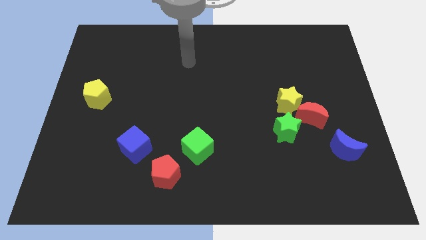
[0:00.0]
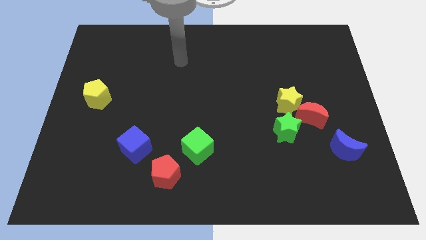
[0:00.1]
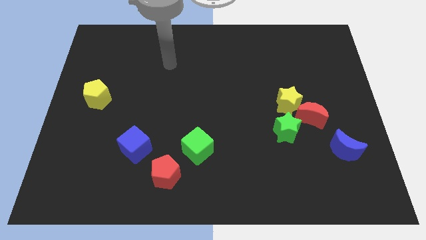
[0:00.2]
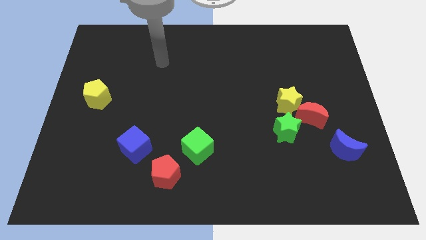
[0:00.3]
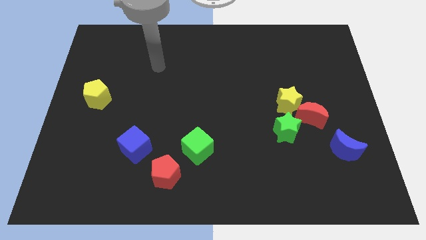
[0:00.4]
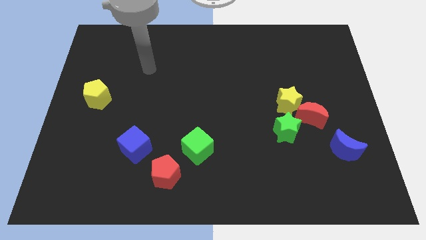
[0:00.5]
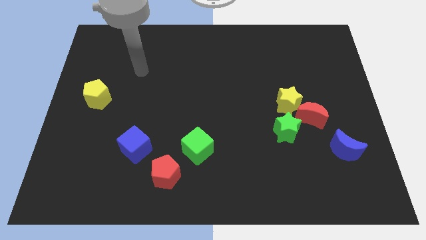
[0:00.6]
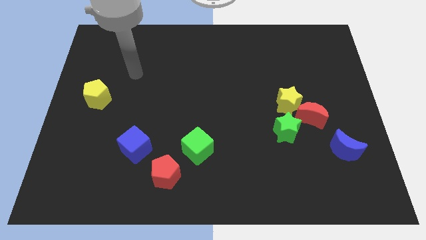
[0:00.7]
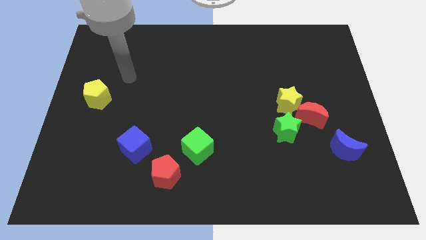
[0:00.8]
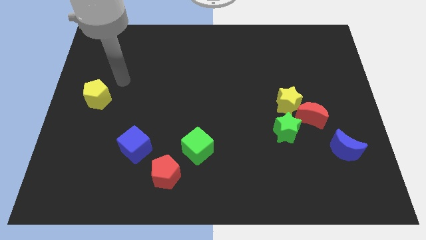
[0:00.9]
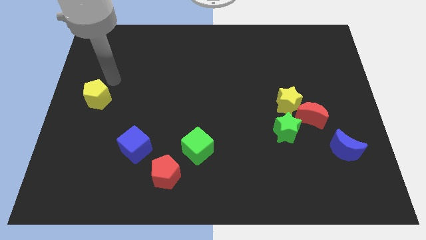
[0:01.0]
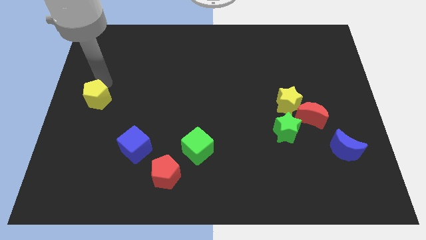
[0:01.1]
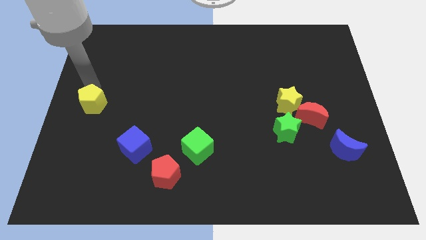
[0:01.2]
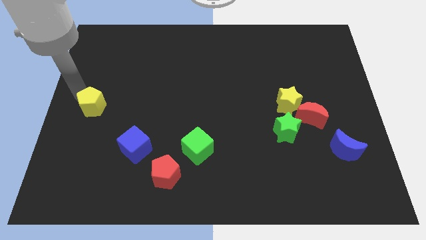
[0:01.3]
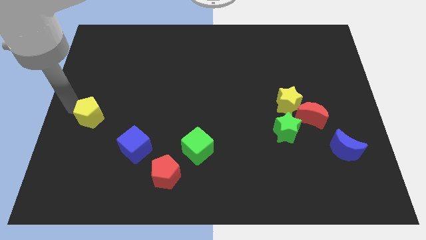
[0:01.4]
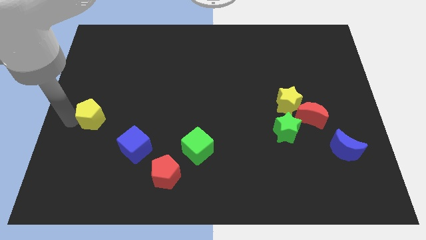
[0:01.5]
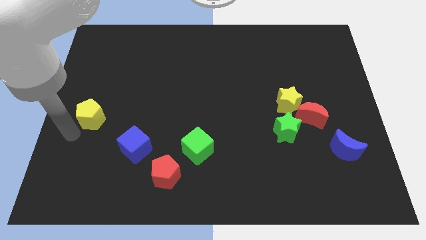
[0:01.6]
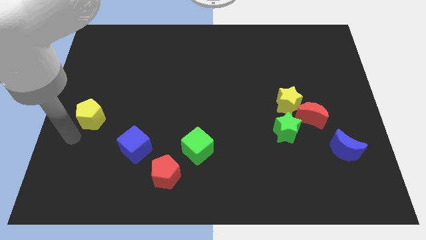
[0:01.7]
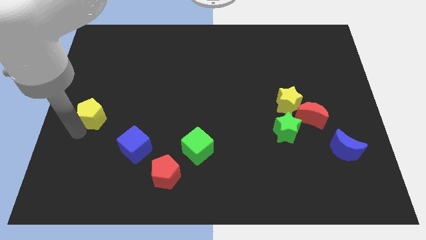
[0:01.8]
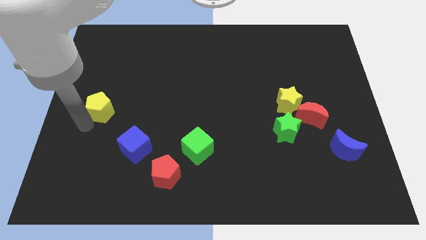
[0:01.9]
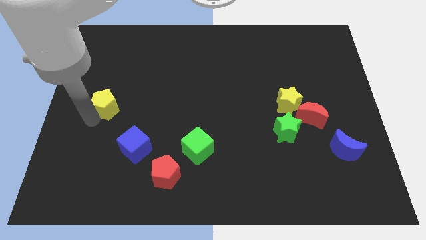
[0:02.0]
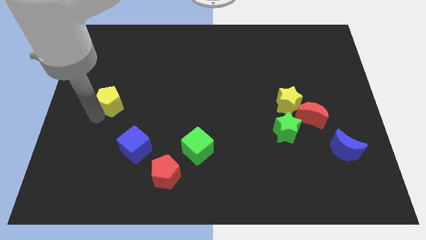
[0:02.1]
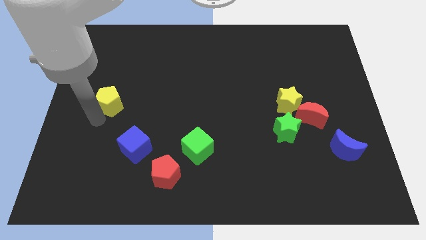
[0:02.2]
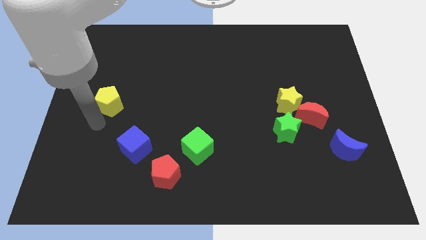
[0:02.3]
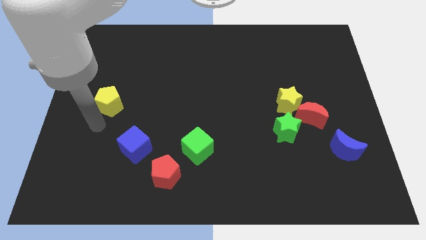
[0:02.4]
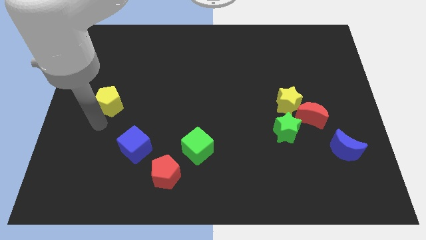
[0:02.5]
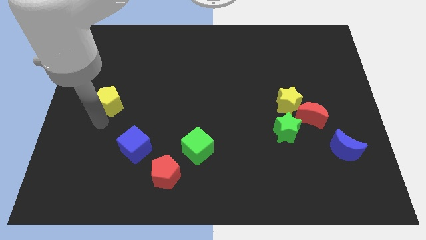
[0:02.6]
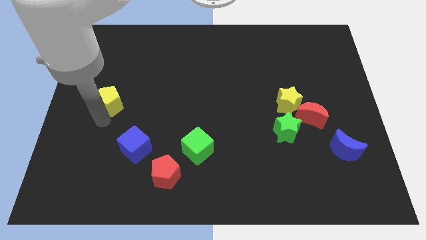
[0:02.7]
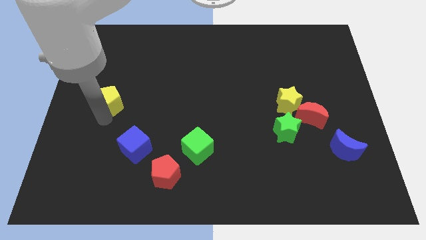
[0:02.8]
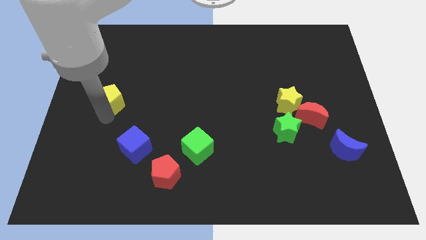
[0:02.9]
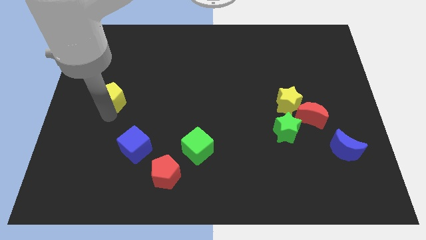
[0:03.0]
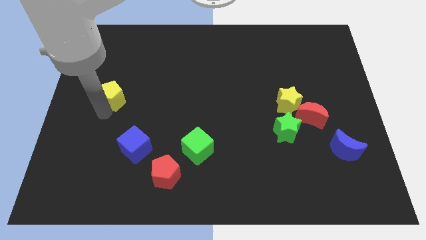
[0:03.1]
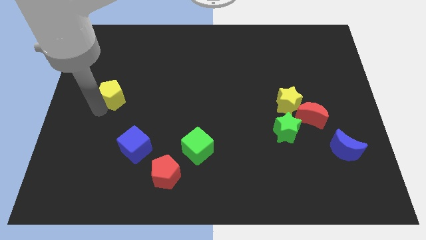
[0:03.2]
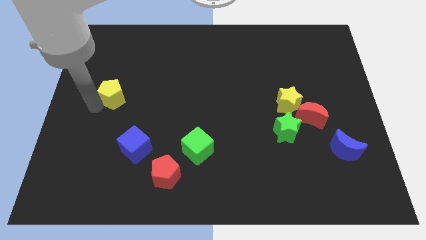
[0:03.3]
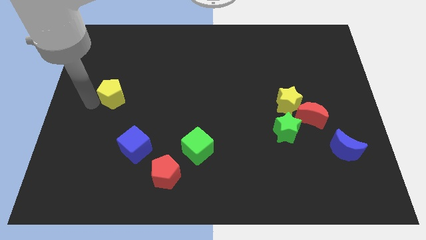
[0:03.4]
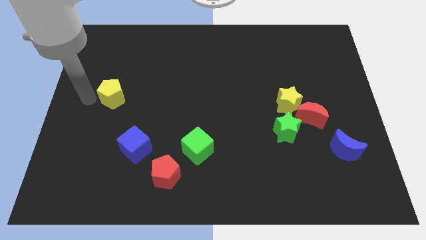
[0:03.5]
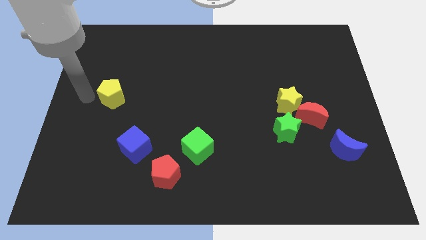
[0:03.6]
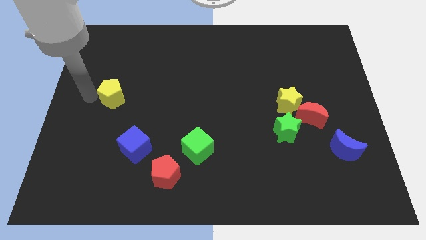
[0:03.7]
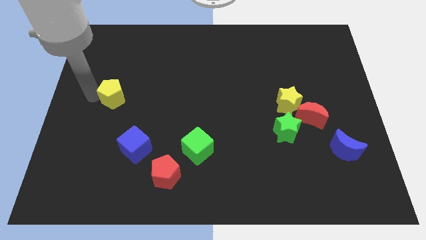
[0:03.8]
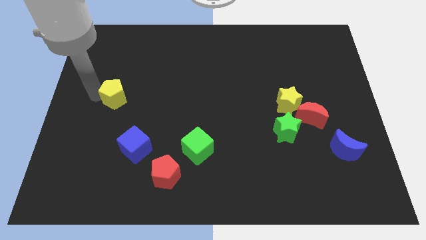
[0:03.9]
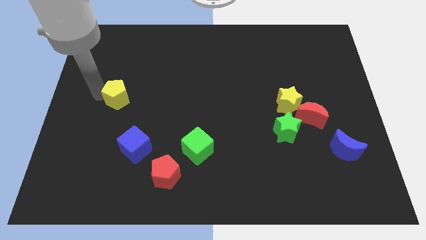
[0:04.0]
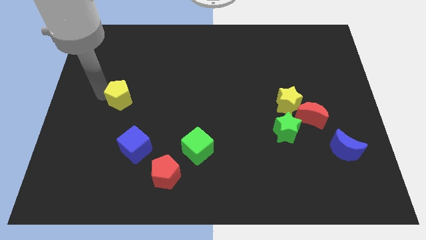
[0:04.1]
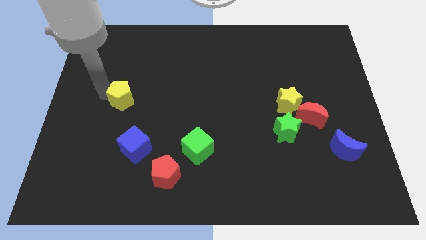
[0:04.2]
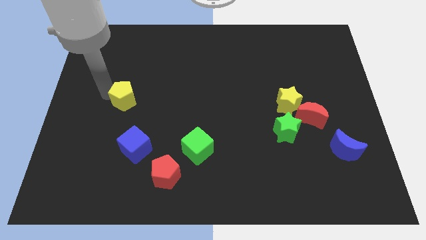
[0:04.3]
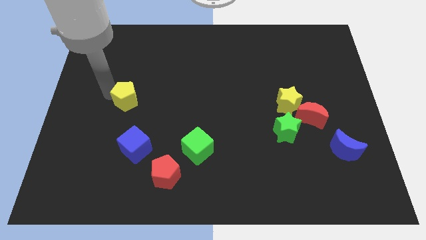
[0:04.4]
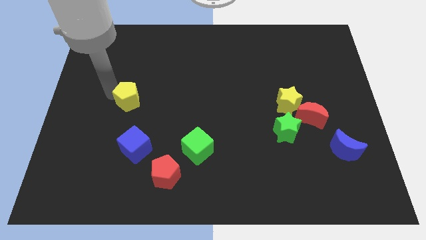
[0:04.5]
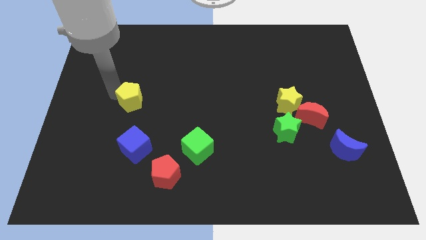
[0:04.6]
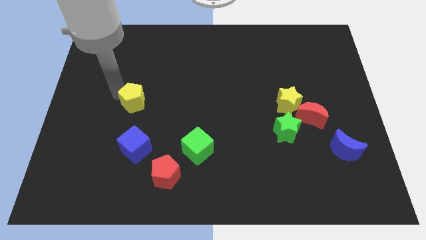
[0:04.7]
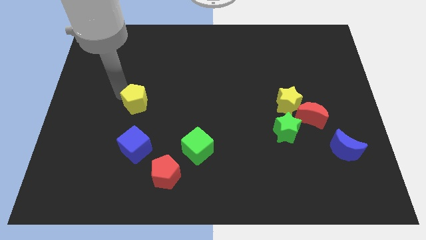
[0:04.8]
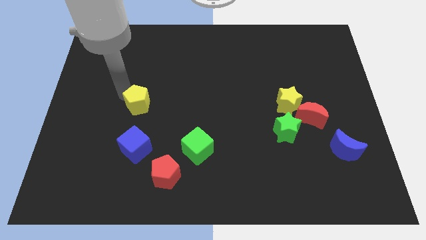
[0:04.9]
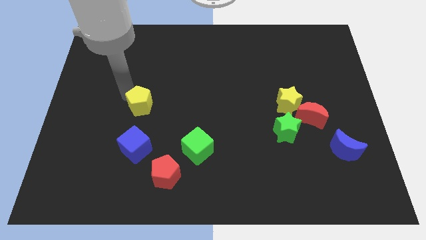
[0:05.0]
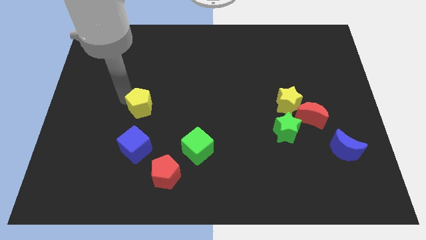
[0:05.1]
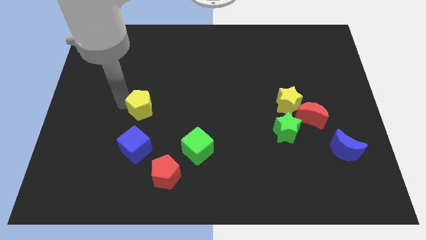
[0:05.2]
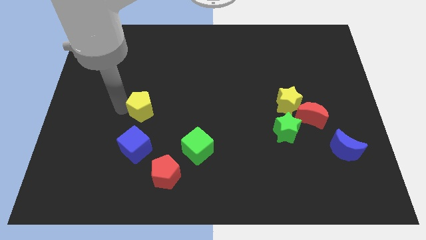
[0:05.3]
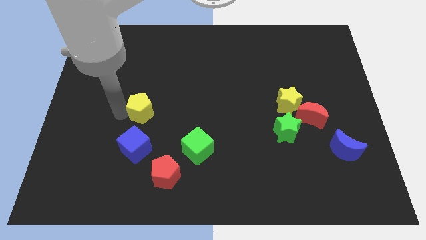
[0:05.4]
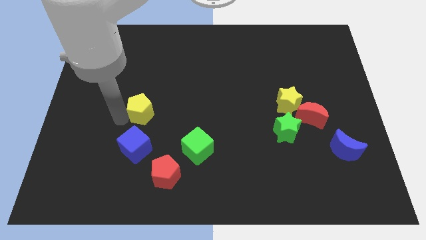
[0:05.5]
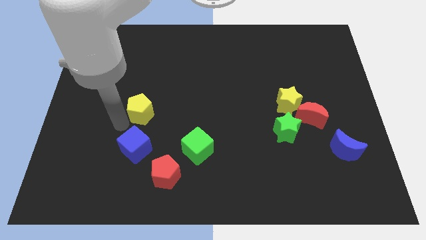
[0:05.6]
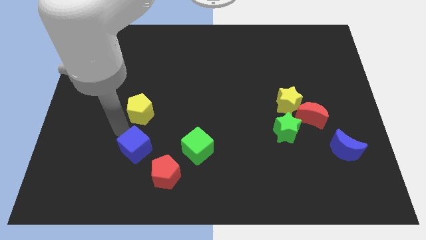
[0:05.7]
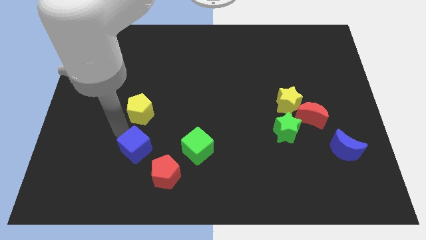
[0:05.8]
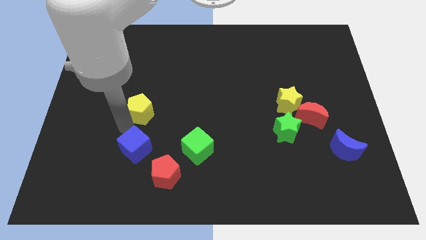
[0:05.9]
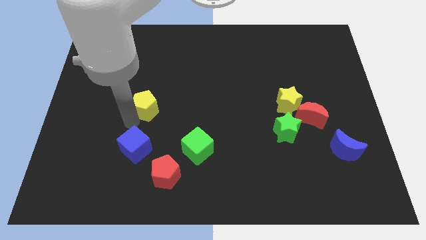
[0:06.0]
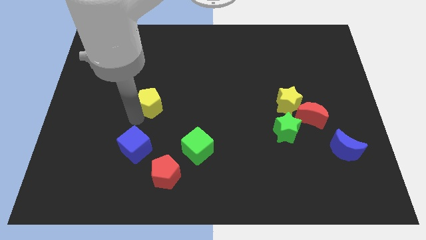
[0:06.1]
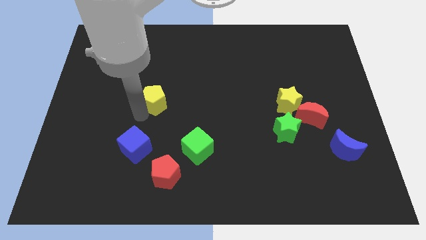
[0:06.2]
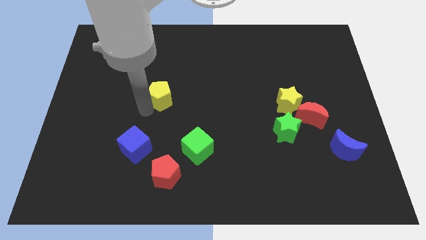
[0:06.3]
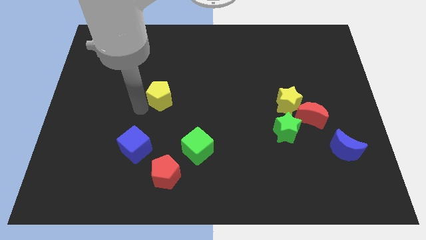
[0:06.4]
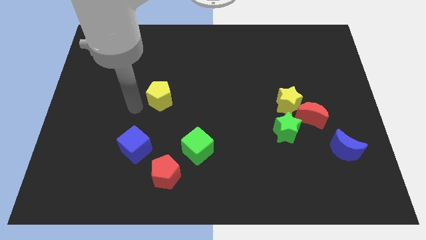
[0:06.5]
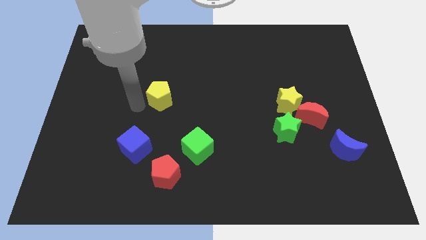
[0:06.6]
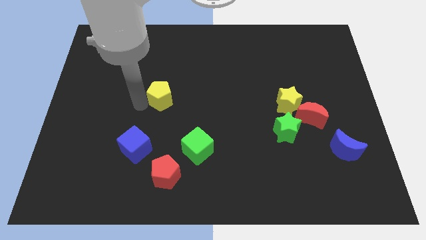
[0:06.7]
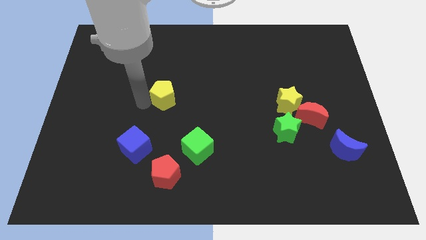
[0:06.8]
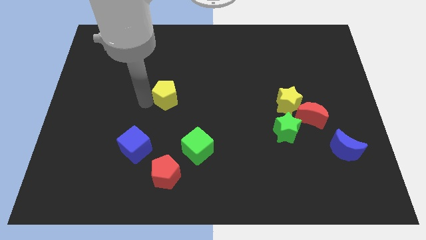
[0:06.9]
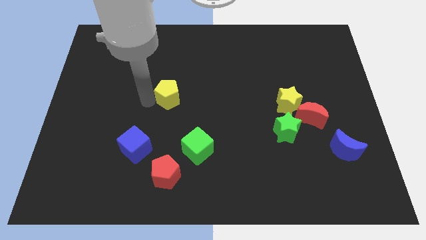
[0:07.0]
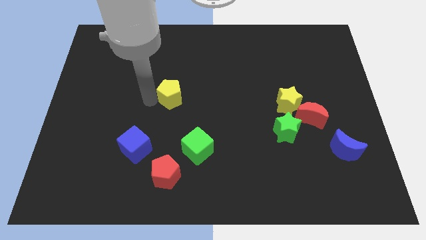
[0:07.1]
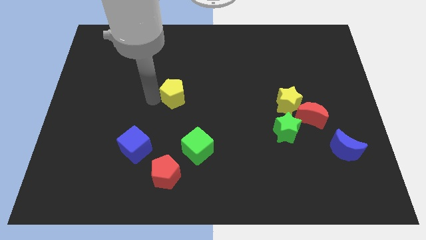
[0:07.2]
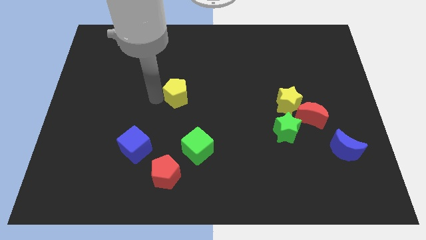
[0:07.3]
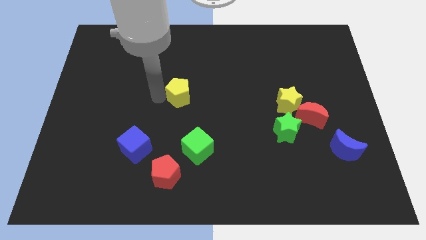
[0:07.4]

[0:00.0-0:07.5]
push the yellow pentagon right

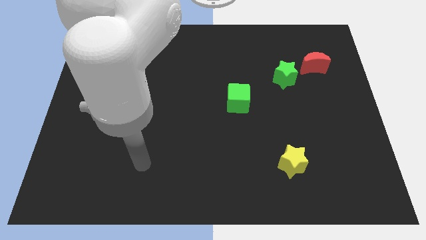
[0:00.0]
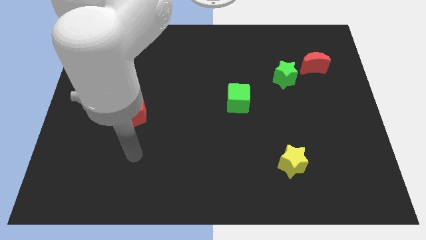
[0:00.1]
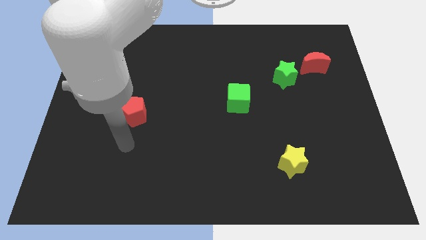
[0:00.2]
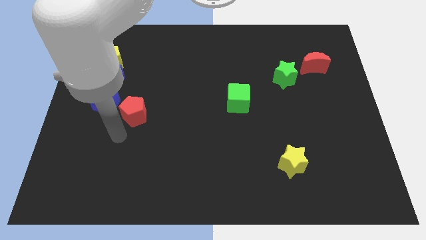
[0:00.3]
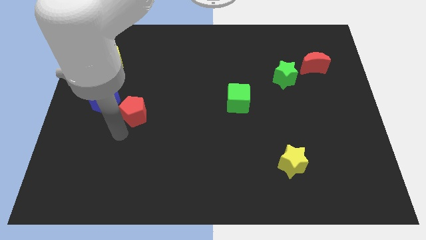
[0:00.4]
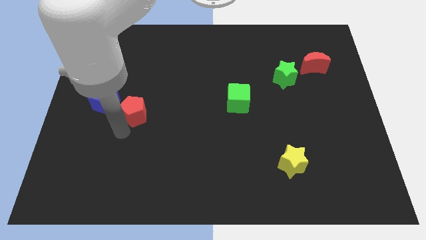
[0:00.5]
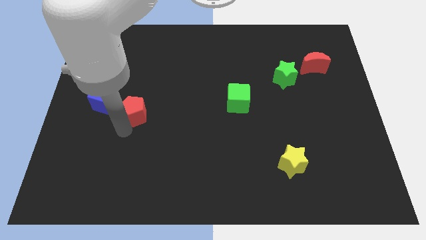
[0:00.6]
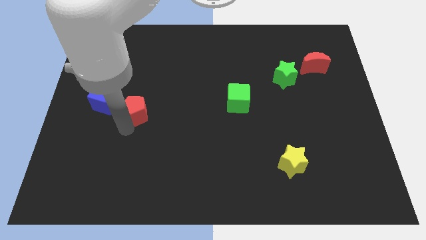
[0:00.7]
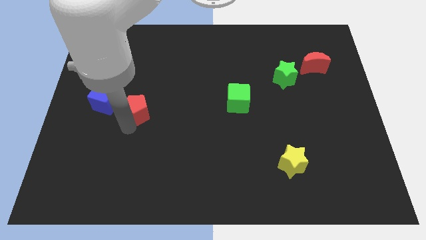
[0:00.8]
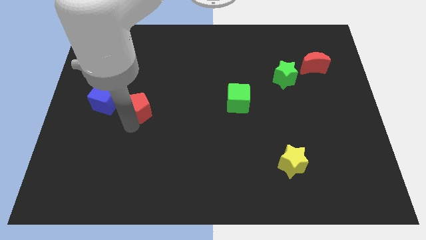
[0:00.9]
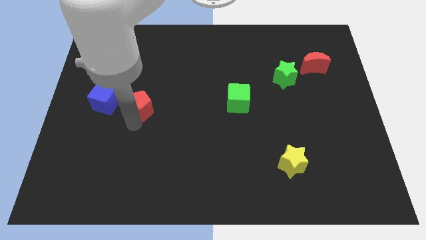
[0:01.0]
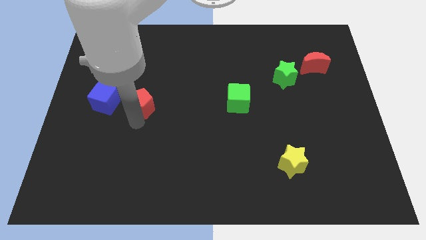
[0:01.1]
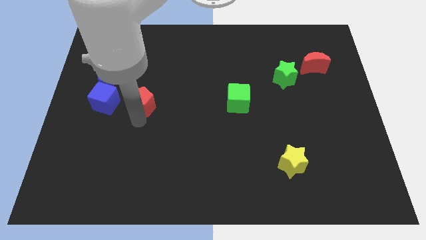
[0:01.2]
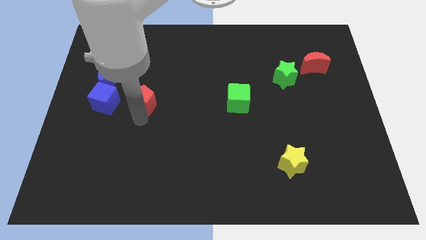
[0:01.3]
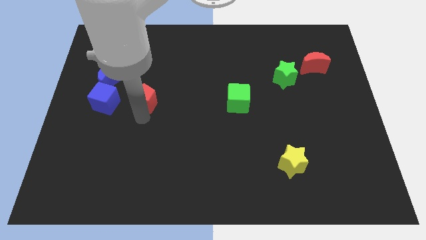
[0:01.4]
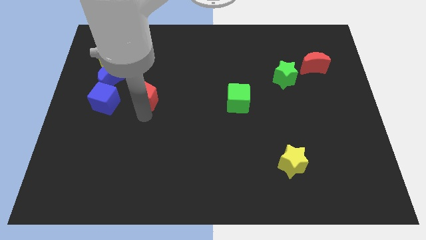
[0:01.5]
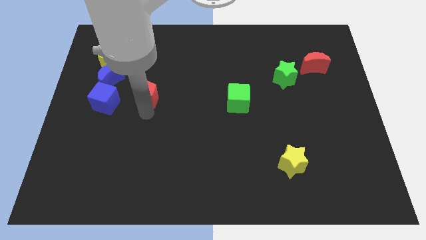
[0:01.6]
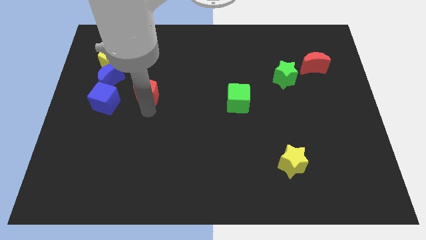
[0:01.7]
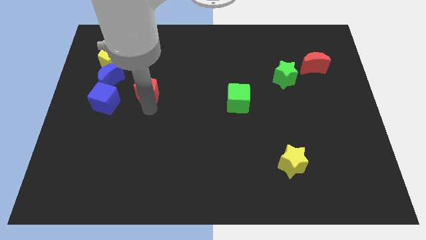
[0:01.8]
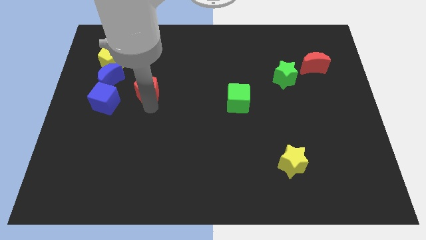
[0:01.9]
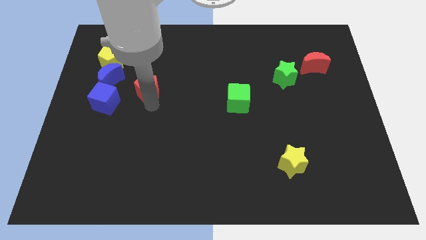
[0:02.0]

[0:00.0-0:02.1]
push the red pentagon slightly up
